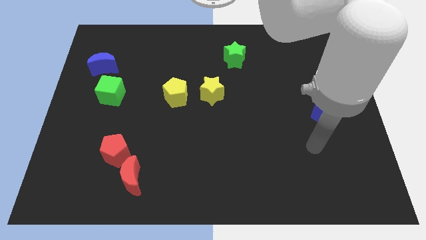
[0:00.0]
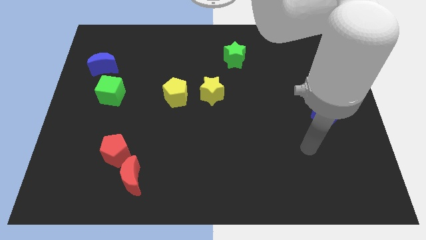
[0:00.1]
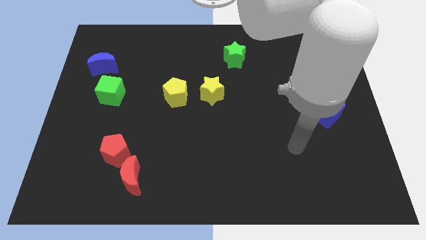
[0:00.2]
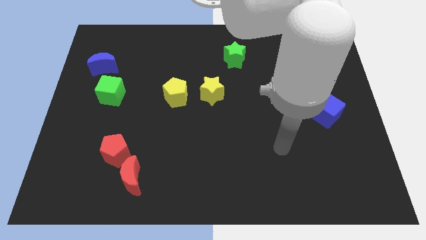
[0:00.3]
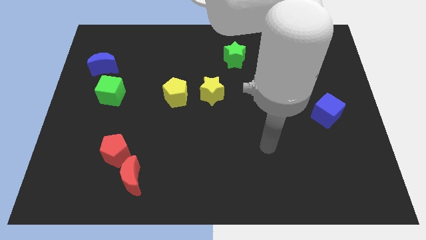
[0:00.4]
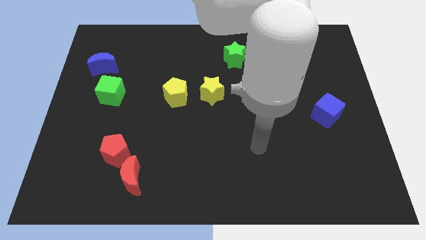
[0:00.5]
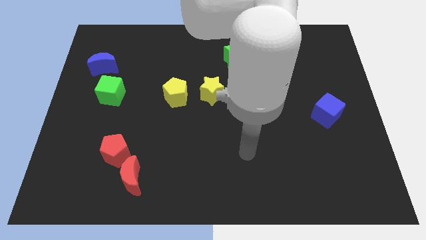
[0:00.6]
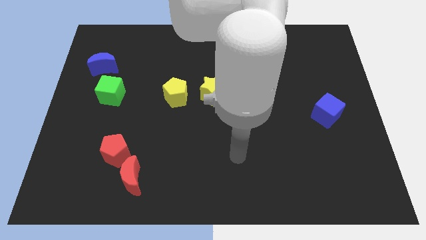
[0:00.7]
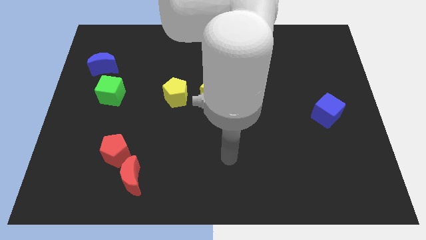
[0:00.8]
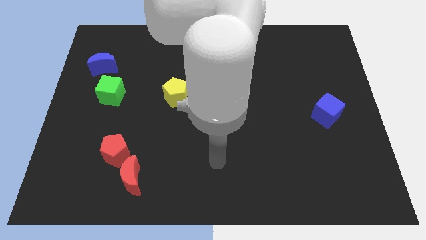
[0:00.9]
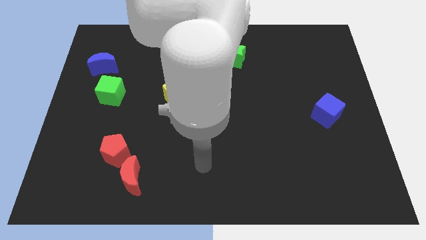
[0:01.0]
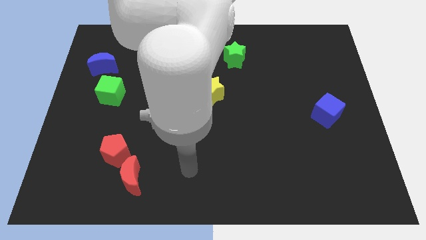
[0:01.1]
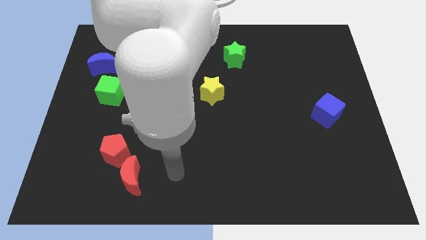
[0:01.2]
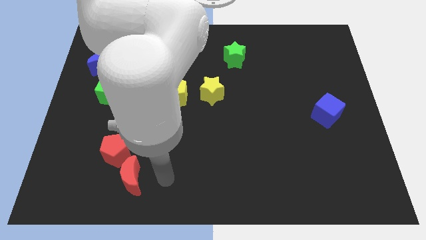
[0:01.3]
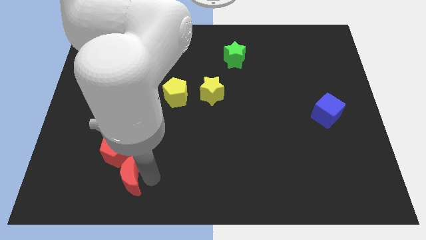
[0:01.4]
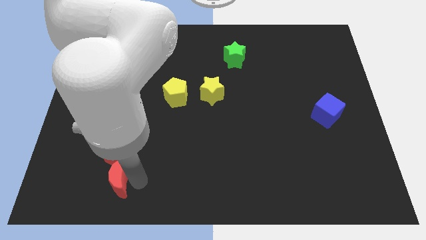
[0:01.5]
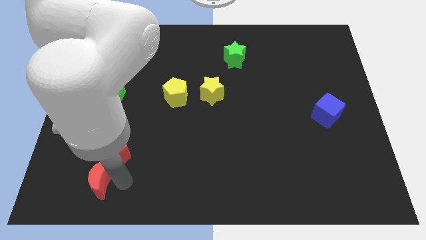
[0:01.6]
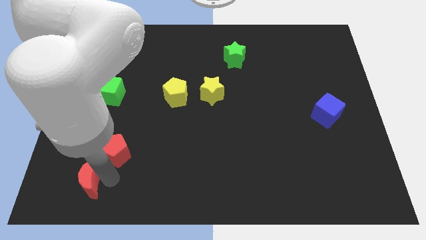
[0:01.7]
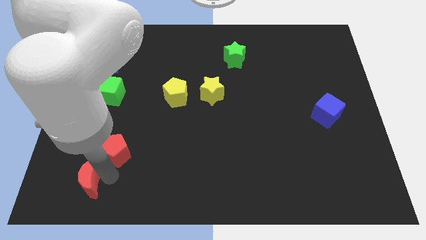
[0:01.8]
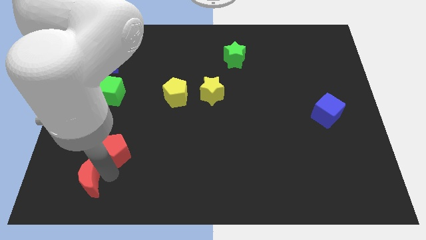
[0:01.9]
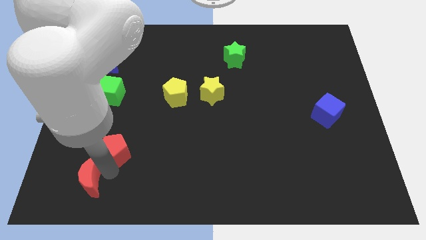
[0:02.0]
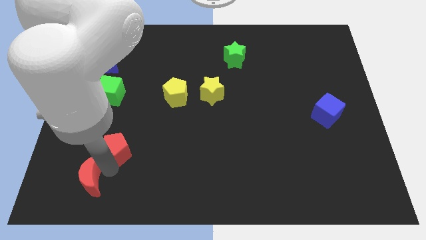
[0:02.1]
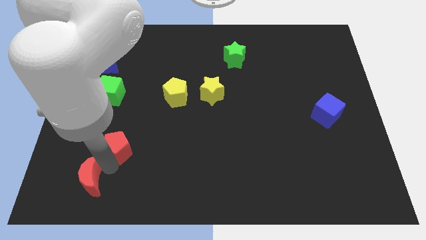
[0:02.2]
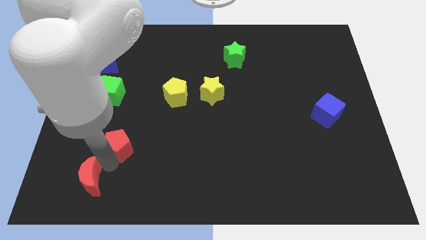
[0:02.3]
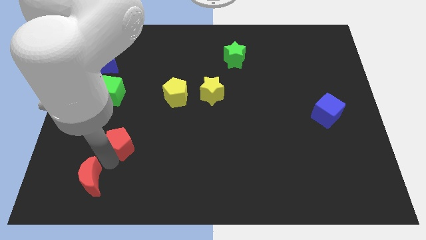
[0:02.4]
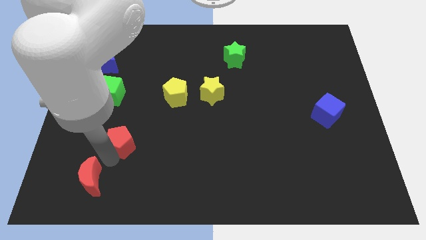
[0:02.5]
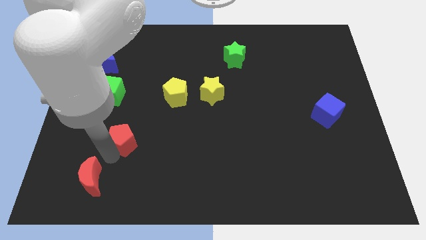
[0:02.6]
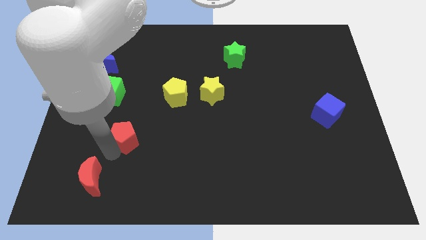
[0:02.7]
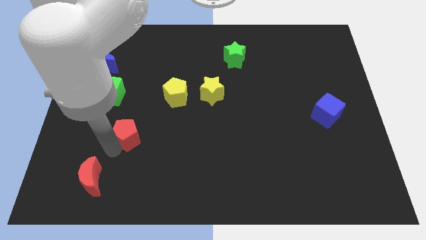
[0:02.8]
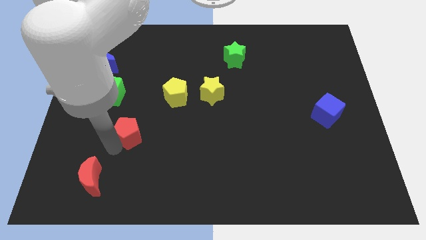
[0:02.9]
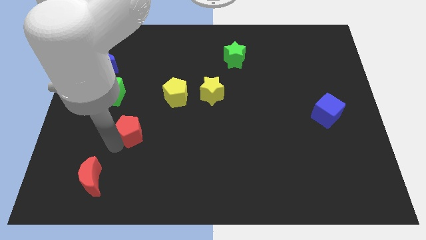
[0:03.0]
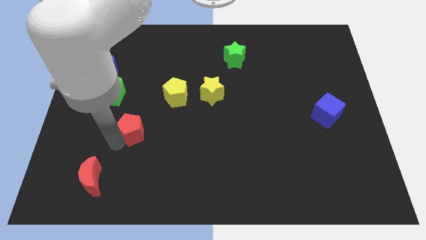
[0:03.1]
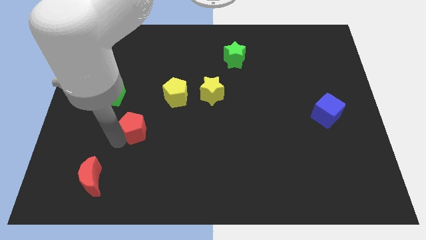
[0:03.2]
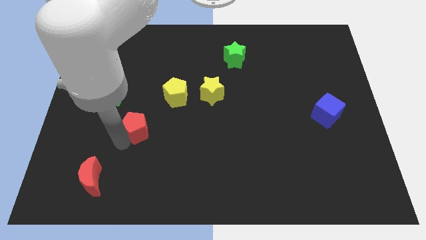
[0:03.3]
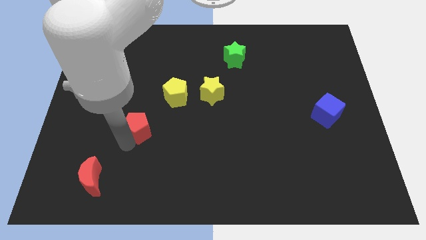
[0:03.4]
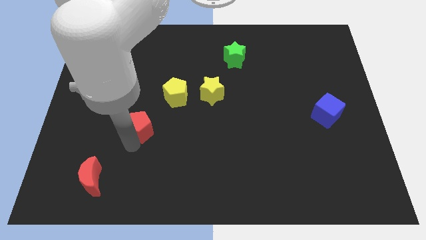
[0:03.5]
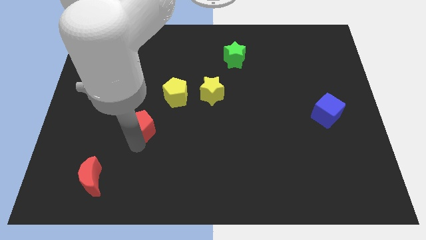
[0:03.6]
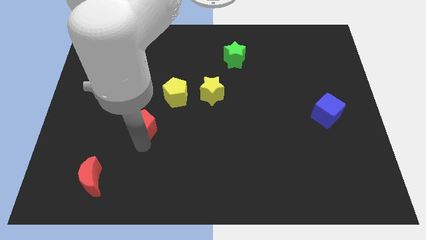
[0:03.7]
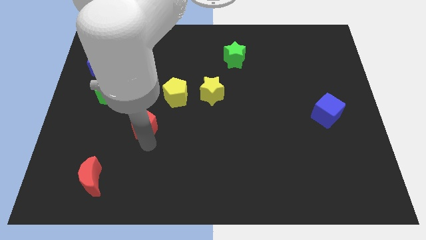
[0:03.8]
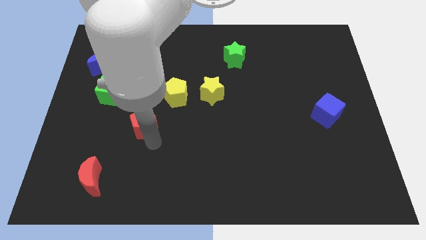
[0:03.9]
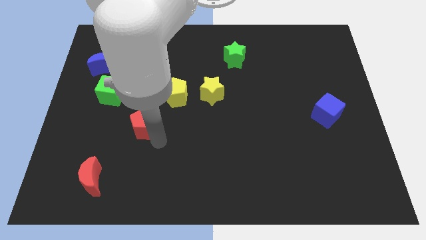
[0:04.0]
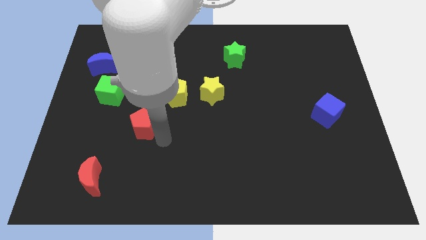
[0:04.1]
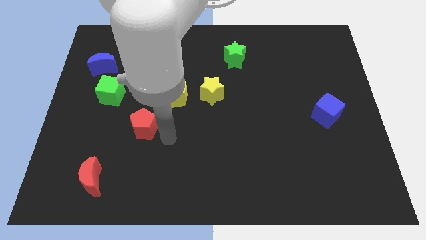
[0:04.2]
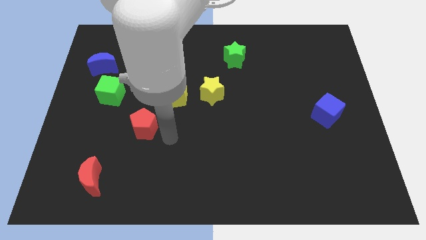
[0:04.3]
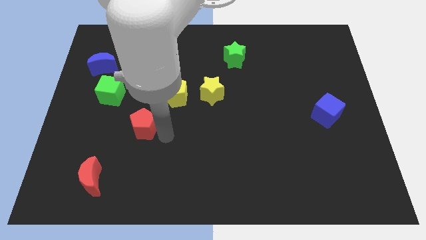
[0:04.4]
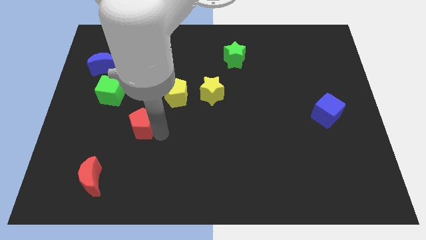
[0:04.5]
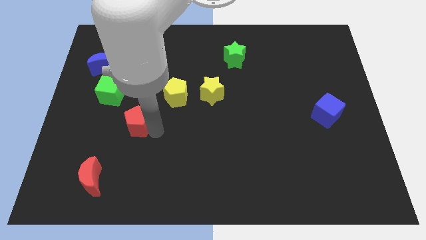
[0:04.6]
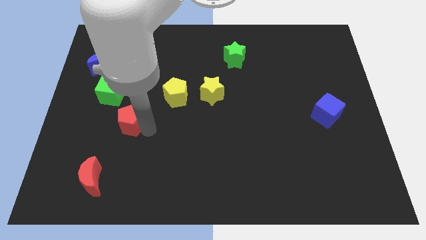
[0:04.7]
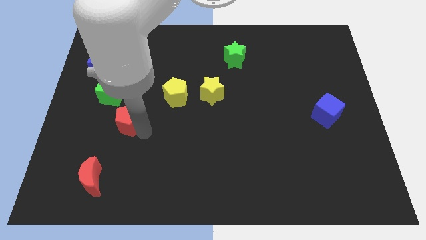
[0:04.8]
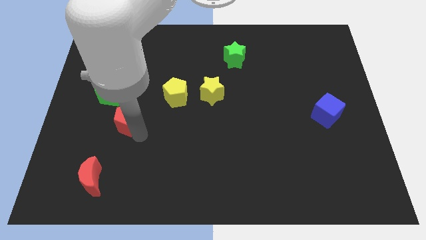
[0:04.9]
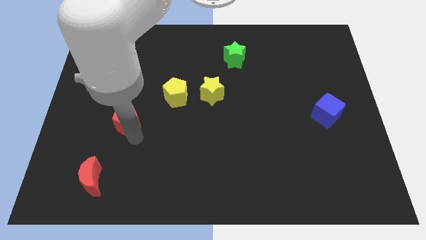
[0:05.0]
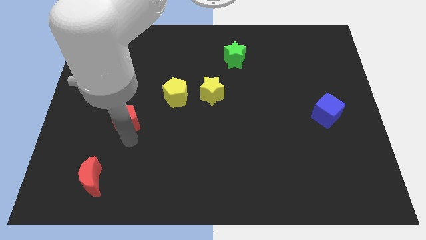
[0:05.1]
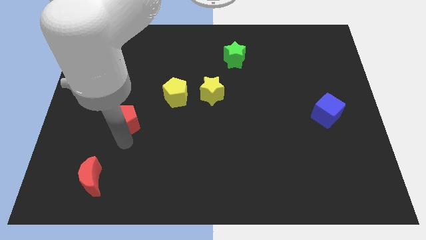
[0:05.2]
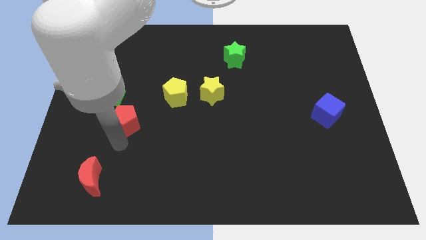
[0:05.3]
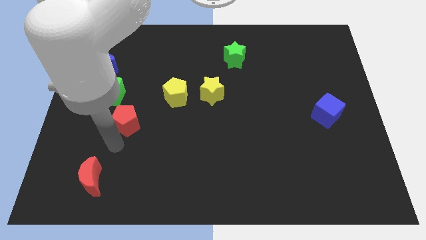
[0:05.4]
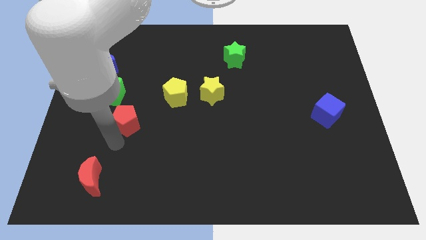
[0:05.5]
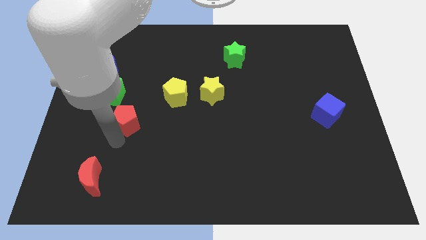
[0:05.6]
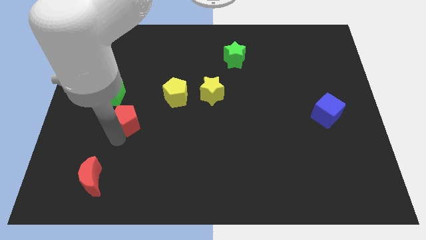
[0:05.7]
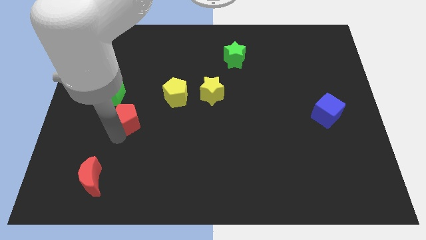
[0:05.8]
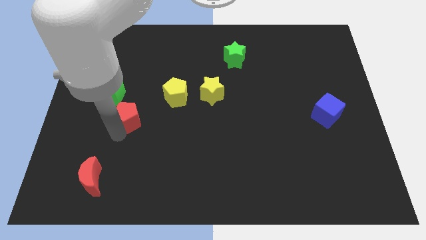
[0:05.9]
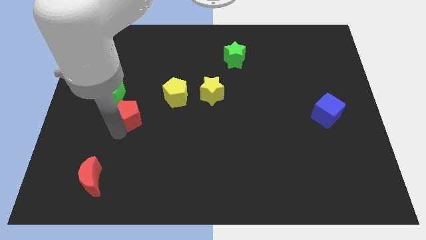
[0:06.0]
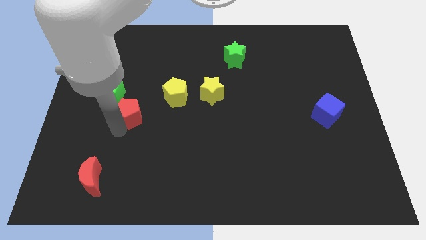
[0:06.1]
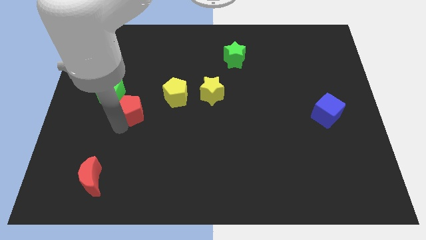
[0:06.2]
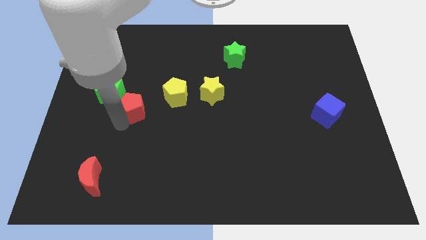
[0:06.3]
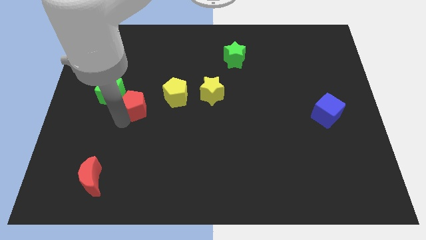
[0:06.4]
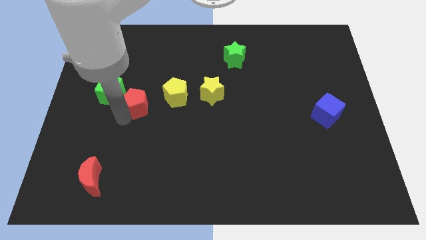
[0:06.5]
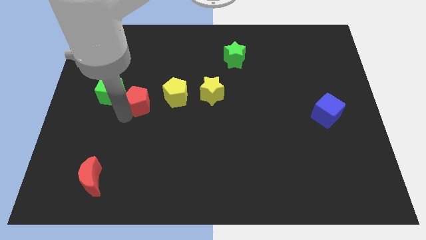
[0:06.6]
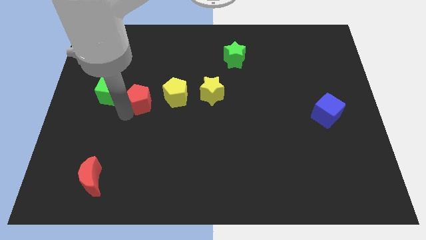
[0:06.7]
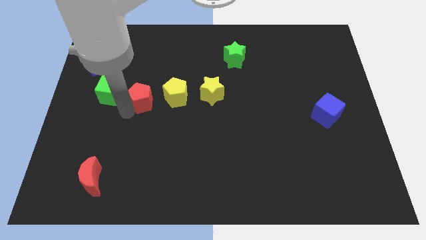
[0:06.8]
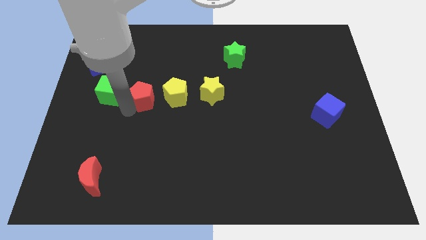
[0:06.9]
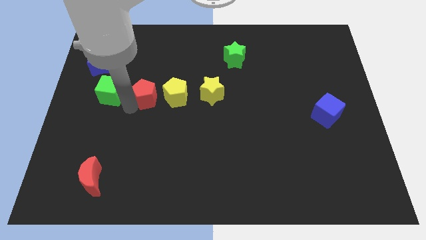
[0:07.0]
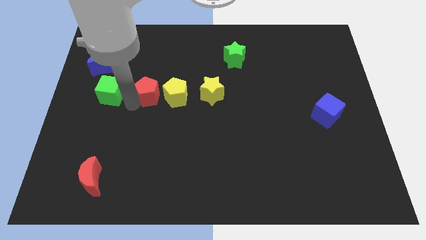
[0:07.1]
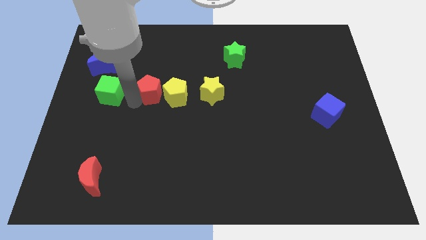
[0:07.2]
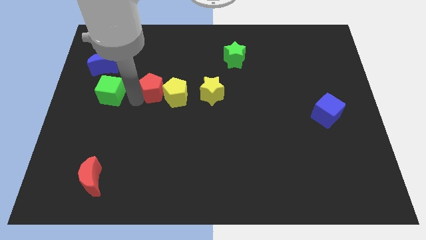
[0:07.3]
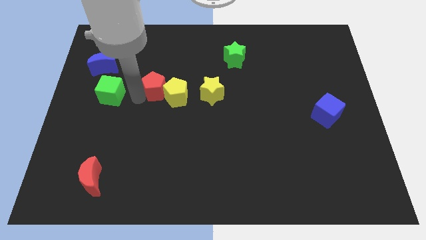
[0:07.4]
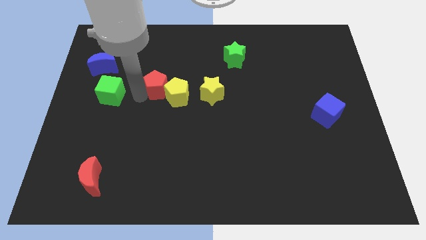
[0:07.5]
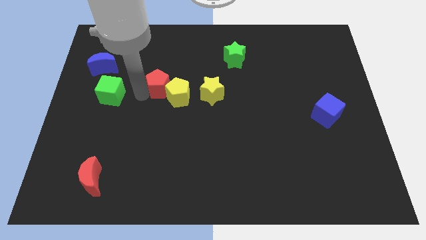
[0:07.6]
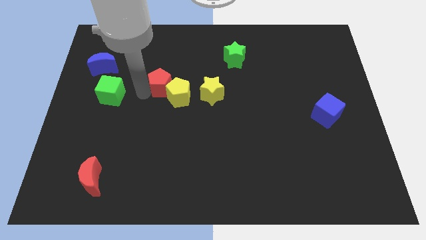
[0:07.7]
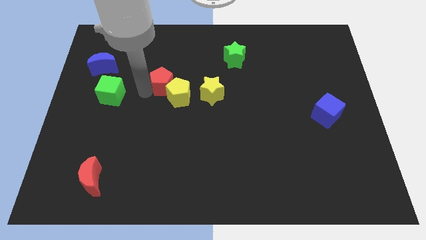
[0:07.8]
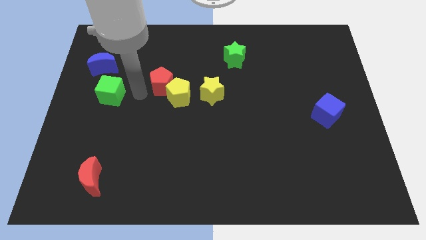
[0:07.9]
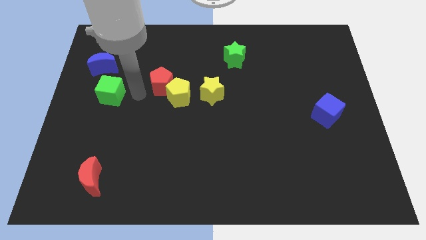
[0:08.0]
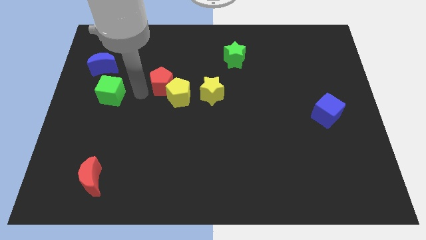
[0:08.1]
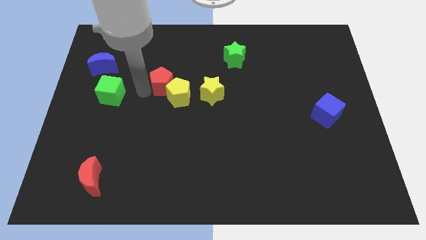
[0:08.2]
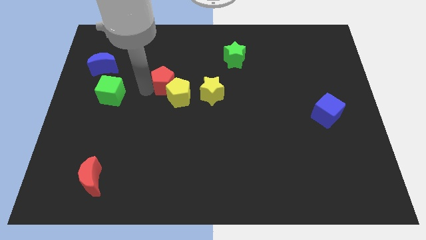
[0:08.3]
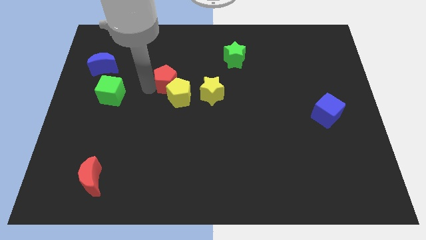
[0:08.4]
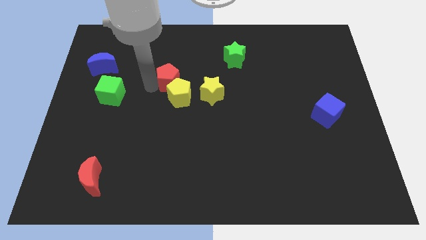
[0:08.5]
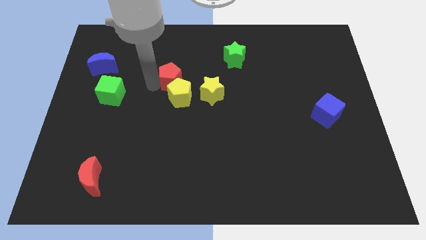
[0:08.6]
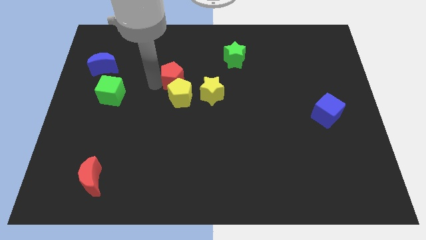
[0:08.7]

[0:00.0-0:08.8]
push the red pentagon upwards and then right
